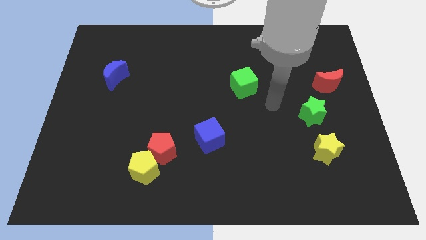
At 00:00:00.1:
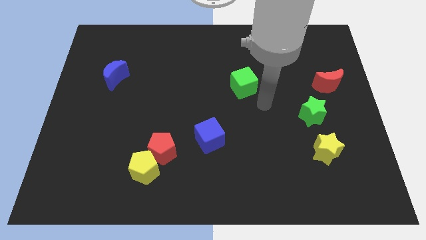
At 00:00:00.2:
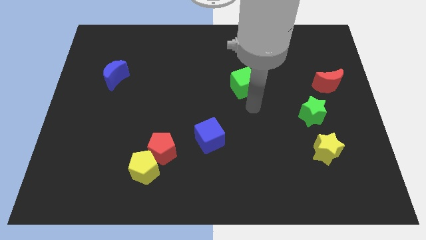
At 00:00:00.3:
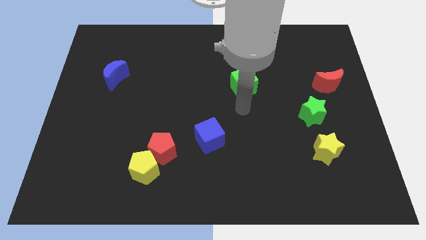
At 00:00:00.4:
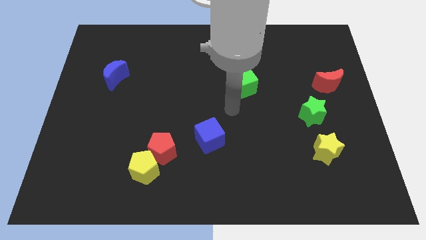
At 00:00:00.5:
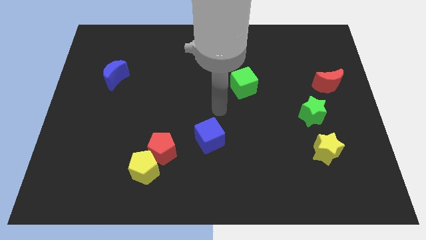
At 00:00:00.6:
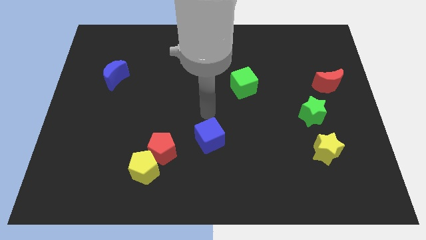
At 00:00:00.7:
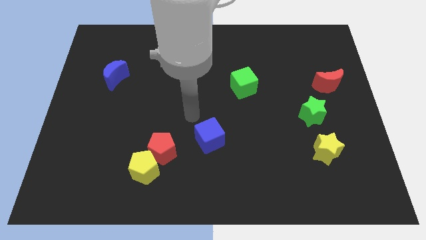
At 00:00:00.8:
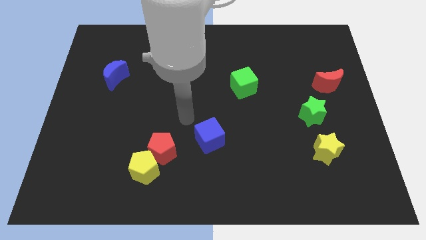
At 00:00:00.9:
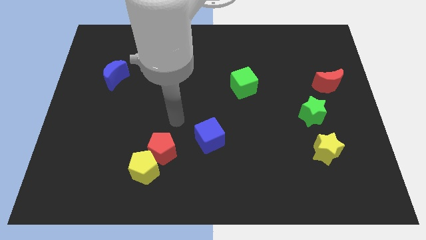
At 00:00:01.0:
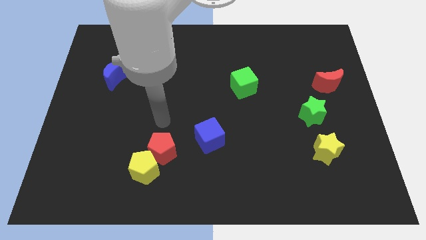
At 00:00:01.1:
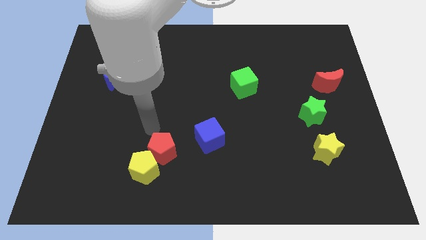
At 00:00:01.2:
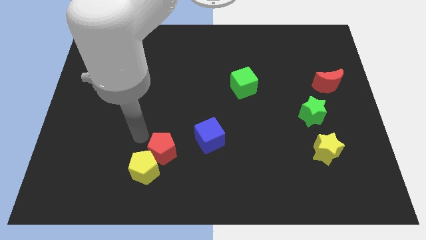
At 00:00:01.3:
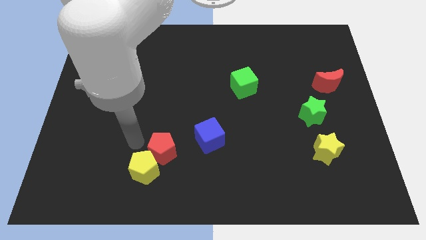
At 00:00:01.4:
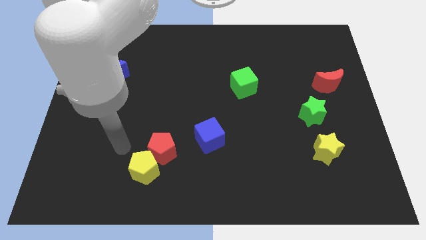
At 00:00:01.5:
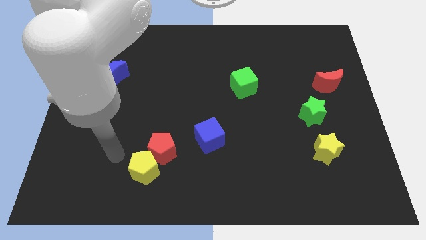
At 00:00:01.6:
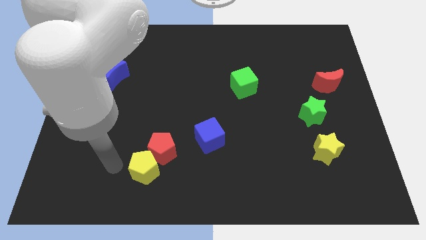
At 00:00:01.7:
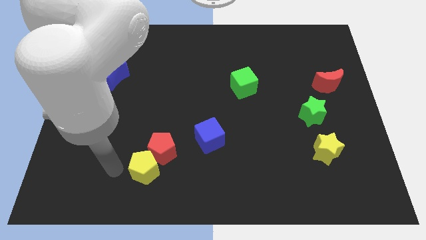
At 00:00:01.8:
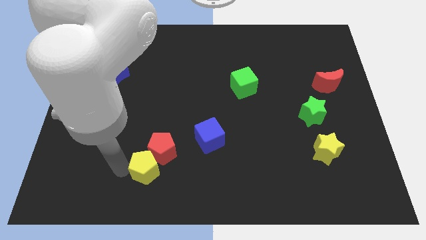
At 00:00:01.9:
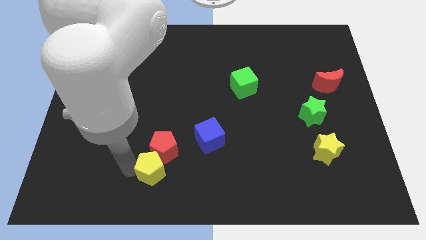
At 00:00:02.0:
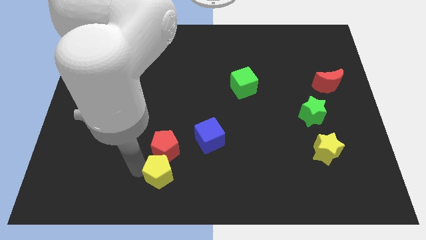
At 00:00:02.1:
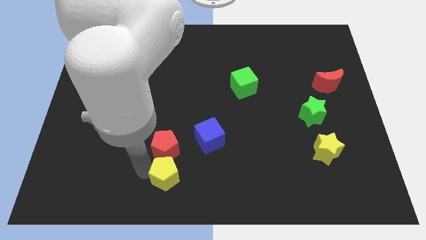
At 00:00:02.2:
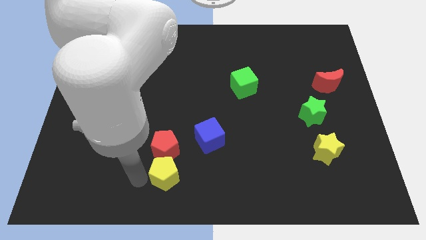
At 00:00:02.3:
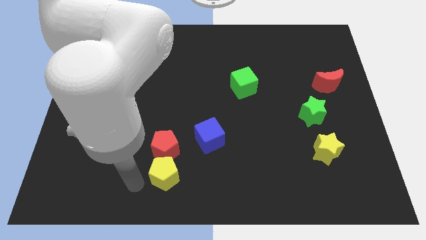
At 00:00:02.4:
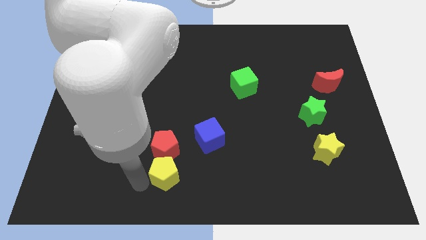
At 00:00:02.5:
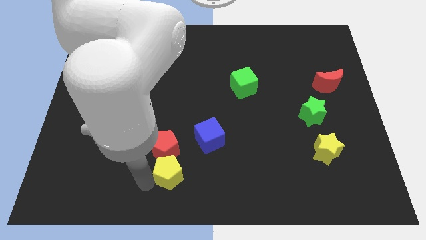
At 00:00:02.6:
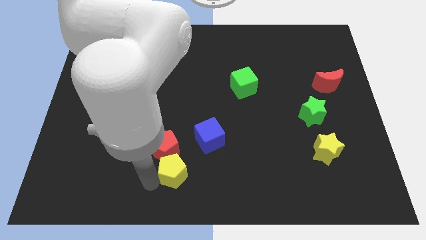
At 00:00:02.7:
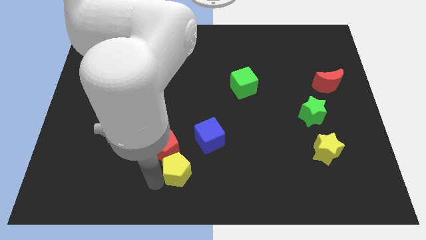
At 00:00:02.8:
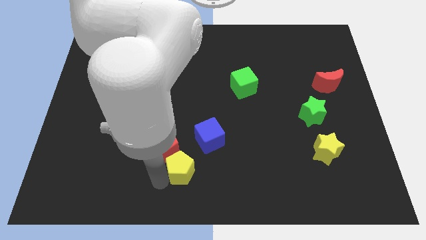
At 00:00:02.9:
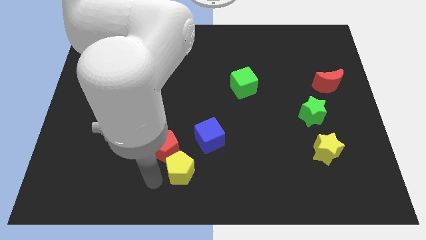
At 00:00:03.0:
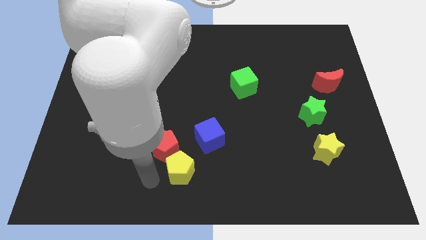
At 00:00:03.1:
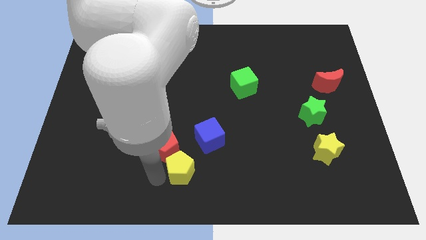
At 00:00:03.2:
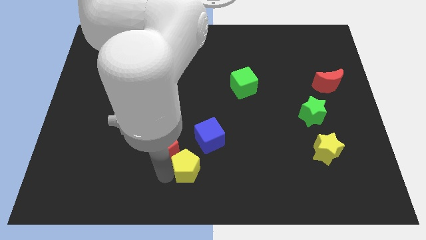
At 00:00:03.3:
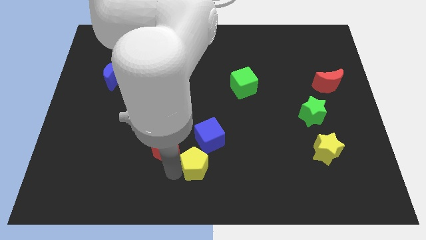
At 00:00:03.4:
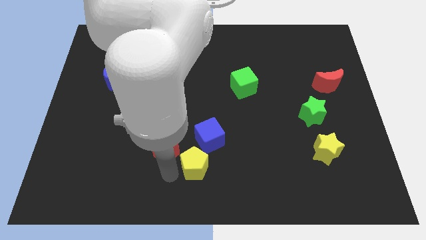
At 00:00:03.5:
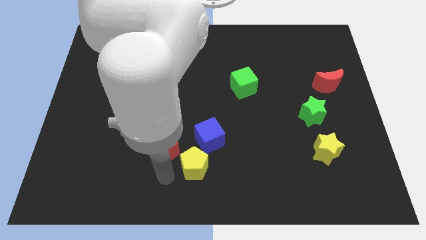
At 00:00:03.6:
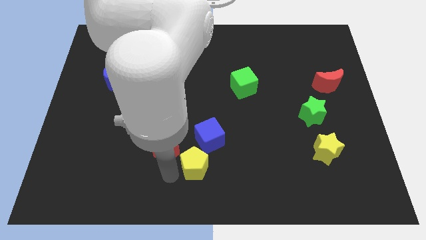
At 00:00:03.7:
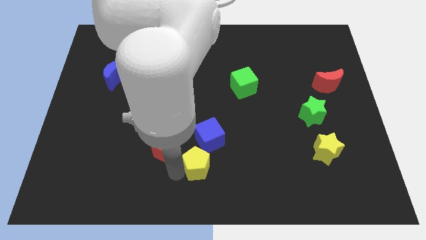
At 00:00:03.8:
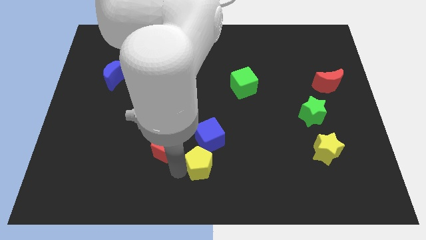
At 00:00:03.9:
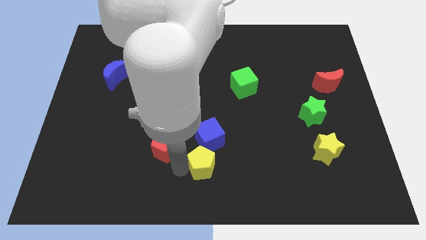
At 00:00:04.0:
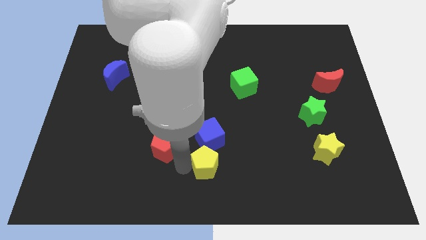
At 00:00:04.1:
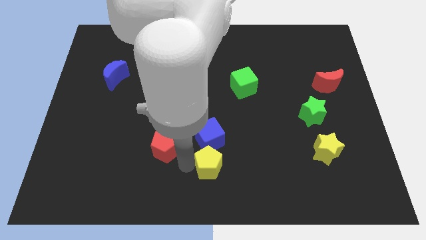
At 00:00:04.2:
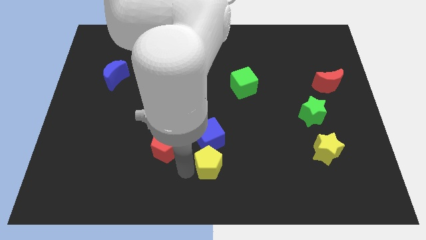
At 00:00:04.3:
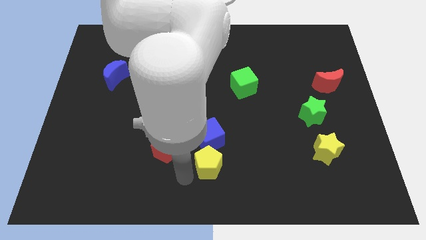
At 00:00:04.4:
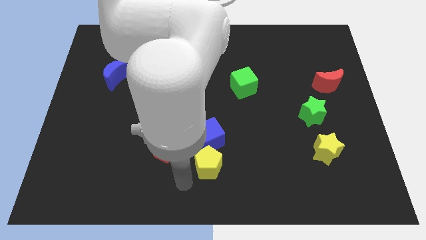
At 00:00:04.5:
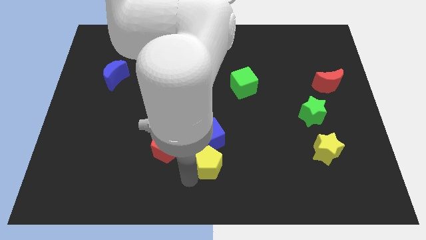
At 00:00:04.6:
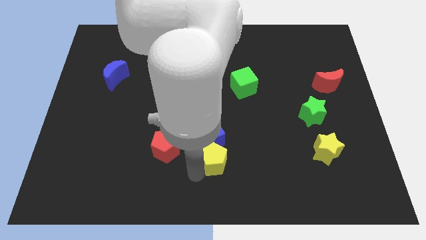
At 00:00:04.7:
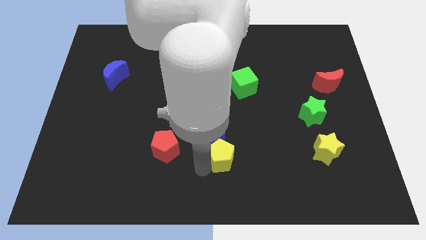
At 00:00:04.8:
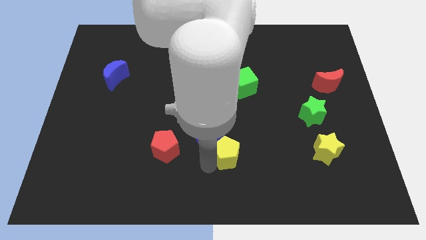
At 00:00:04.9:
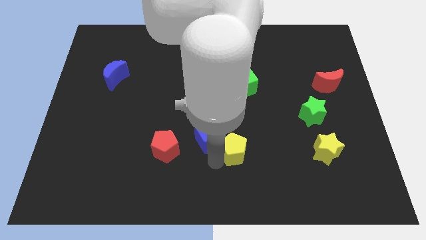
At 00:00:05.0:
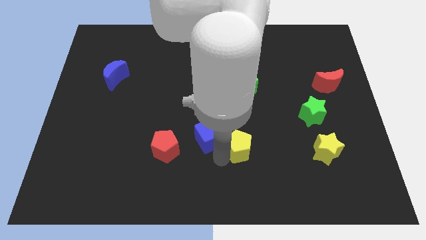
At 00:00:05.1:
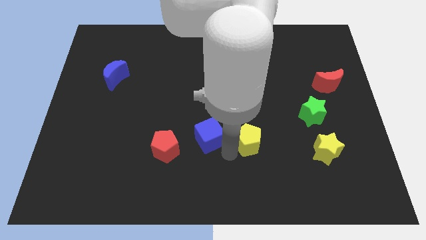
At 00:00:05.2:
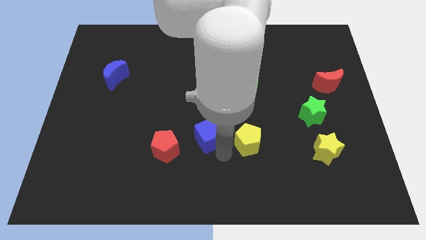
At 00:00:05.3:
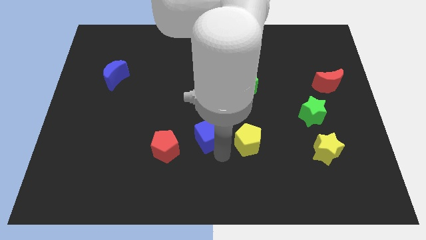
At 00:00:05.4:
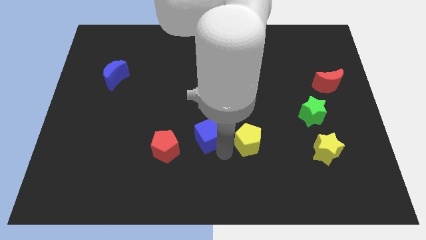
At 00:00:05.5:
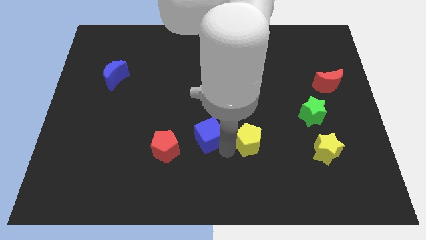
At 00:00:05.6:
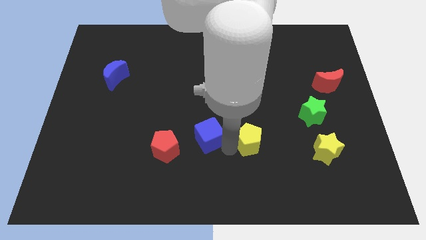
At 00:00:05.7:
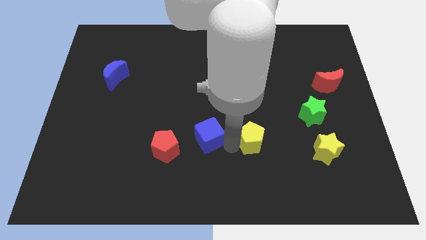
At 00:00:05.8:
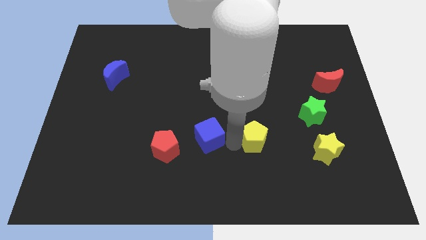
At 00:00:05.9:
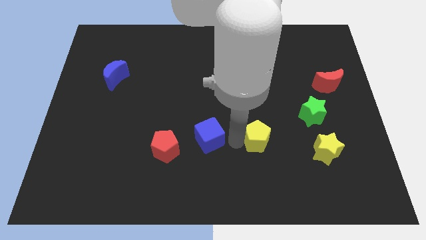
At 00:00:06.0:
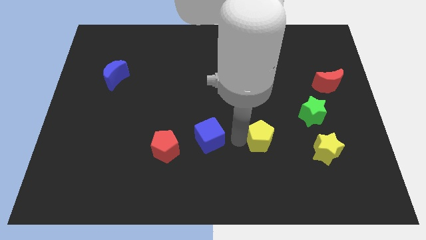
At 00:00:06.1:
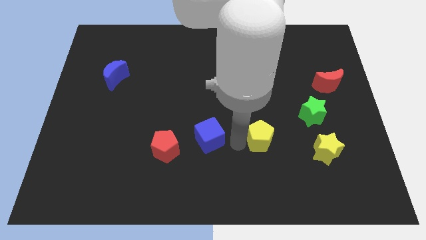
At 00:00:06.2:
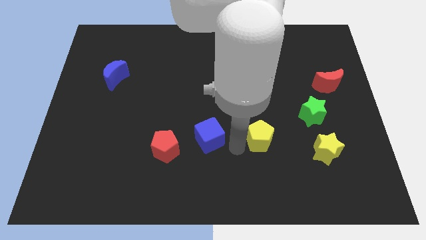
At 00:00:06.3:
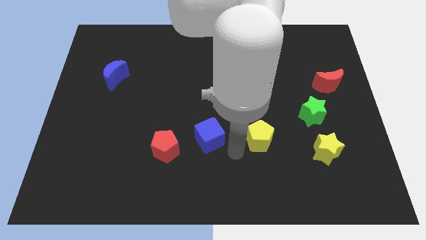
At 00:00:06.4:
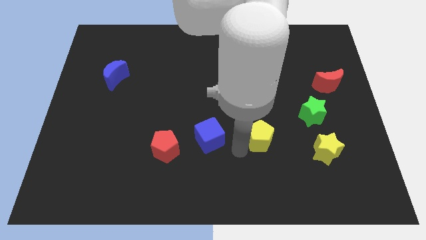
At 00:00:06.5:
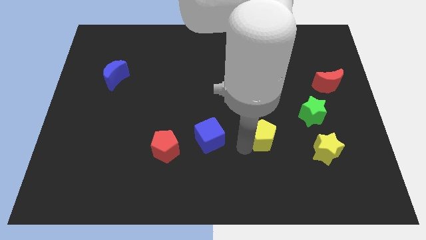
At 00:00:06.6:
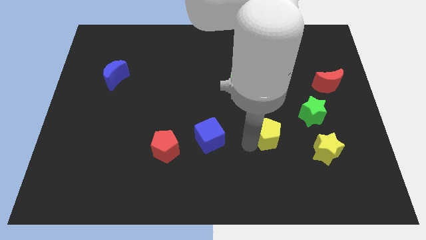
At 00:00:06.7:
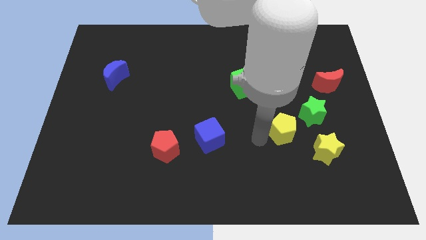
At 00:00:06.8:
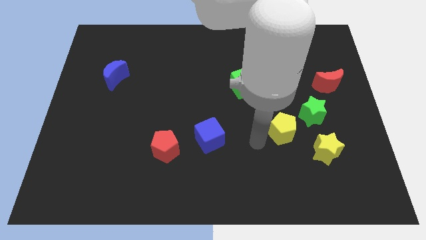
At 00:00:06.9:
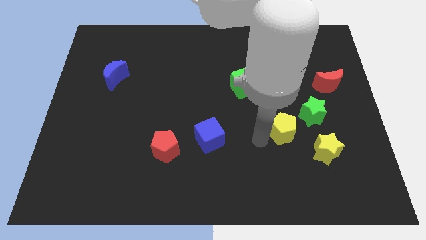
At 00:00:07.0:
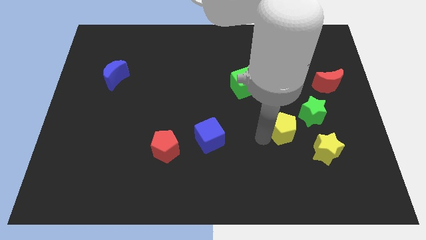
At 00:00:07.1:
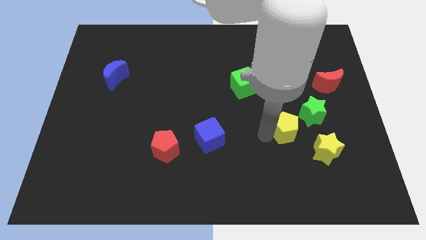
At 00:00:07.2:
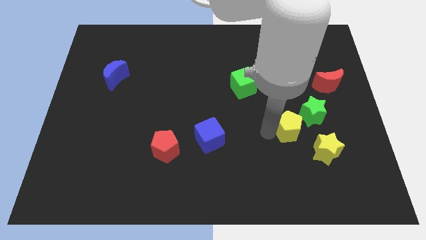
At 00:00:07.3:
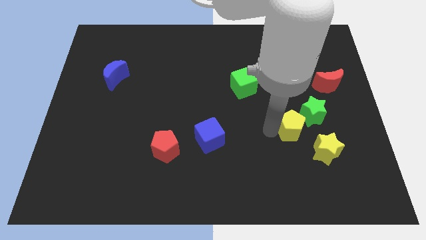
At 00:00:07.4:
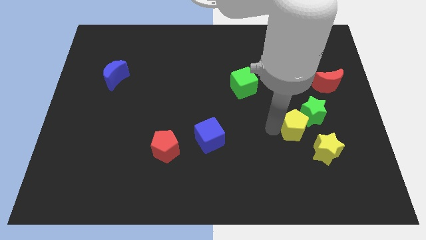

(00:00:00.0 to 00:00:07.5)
slide the yellow pentagon towards the green star

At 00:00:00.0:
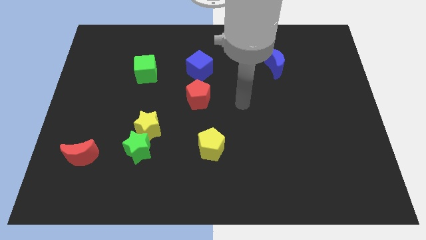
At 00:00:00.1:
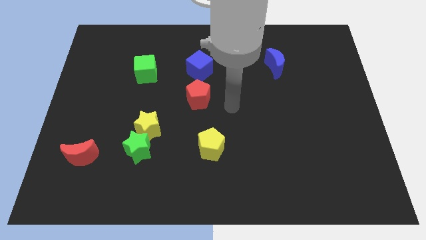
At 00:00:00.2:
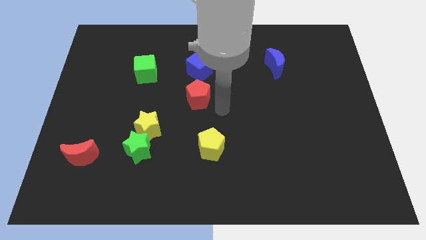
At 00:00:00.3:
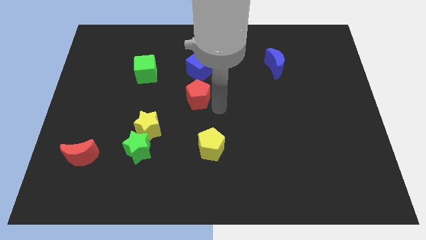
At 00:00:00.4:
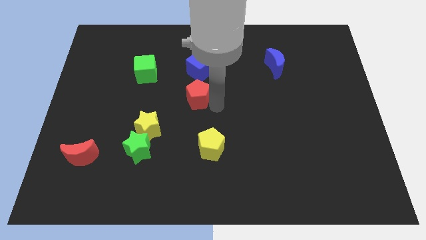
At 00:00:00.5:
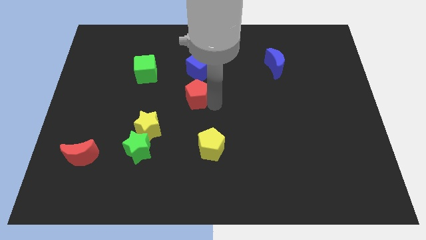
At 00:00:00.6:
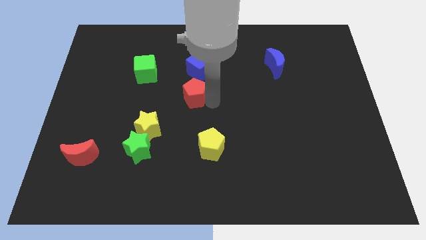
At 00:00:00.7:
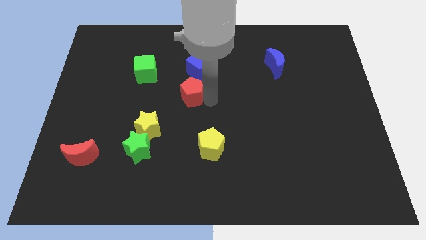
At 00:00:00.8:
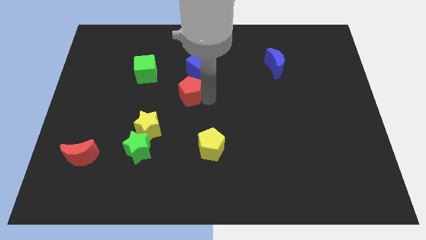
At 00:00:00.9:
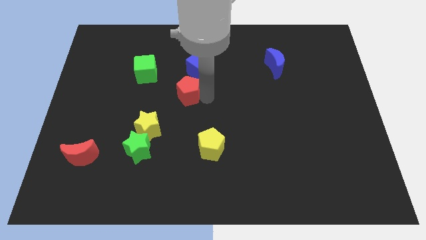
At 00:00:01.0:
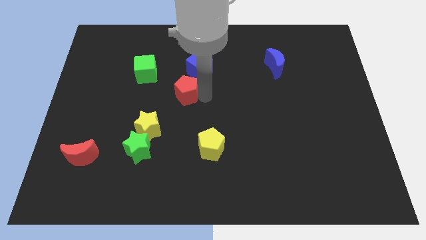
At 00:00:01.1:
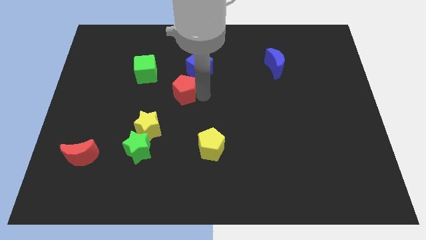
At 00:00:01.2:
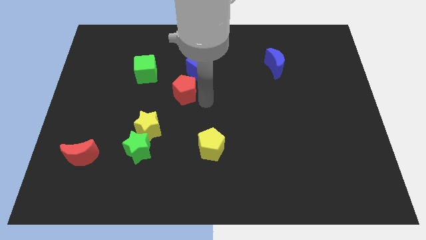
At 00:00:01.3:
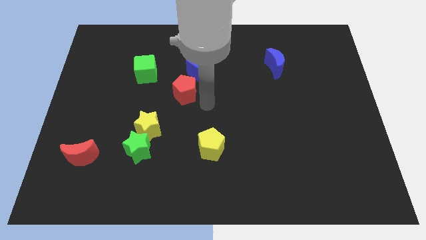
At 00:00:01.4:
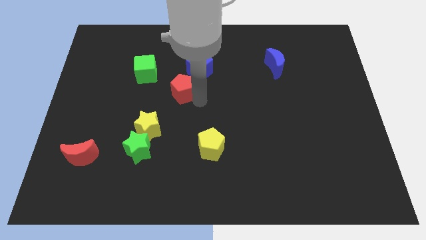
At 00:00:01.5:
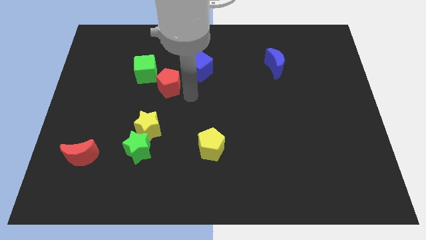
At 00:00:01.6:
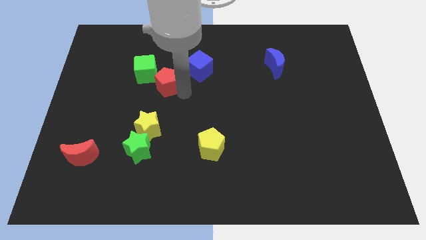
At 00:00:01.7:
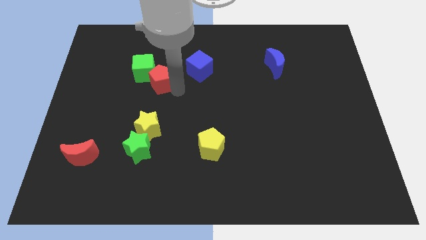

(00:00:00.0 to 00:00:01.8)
slide the red pentagon to the green cube
